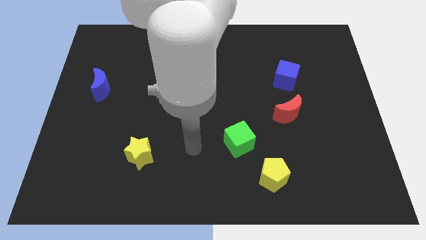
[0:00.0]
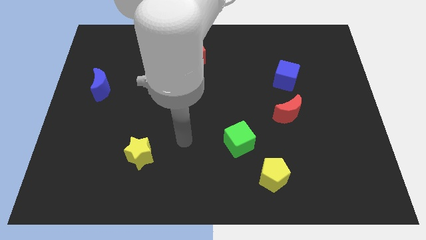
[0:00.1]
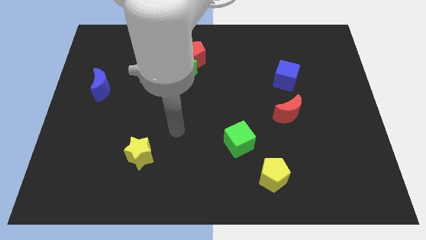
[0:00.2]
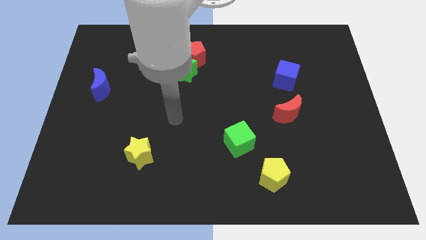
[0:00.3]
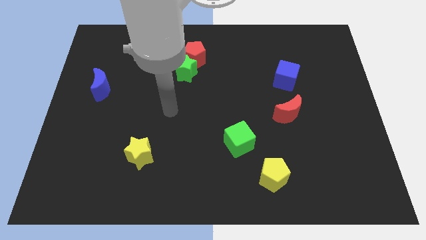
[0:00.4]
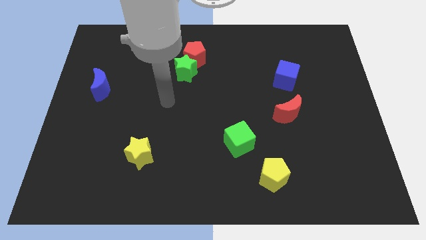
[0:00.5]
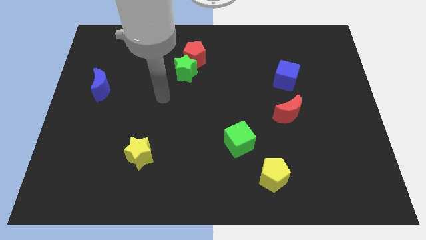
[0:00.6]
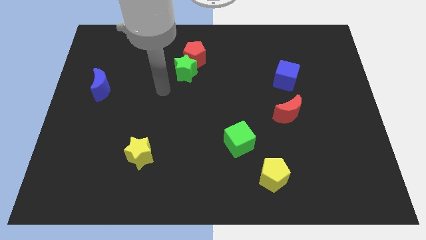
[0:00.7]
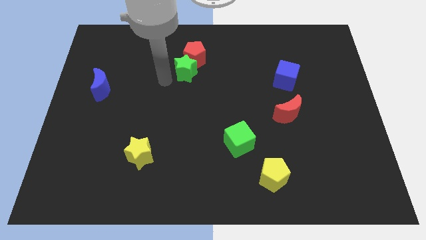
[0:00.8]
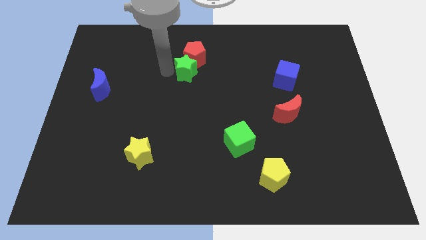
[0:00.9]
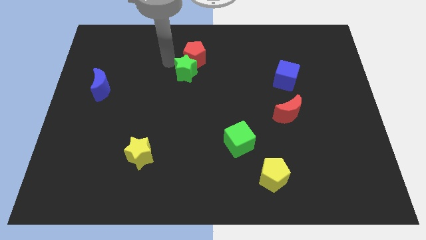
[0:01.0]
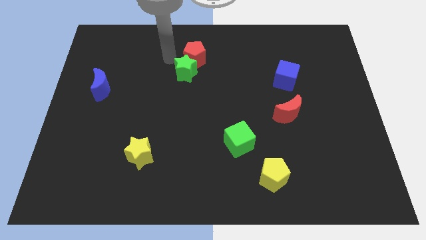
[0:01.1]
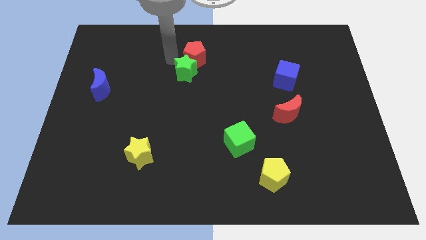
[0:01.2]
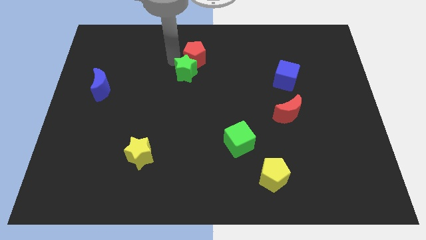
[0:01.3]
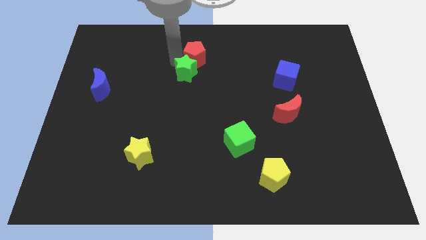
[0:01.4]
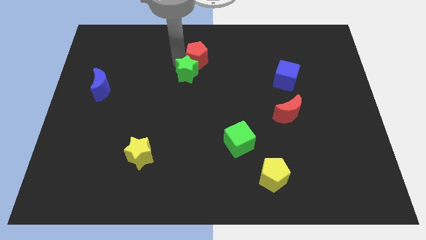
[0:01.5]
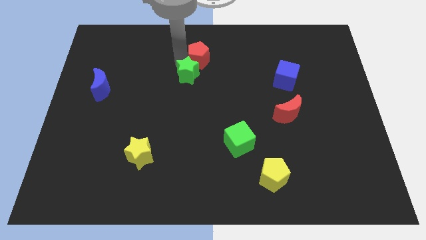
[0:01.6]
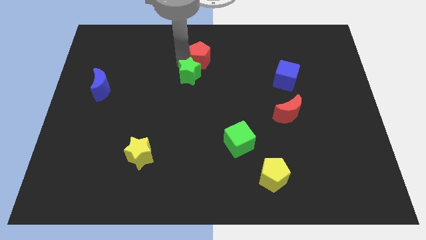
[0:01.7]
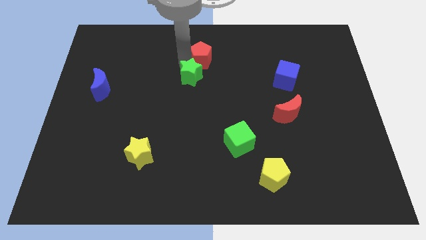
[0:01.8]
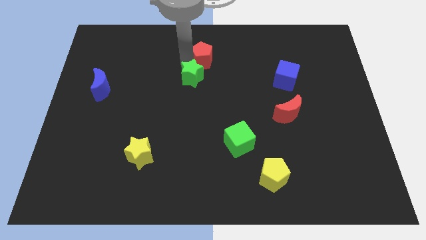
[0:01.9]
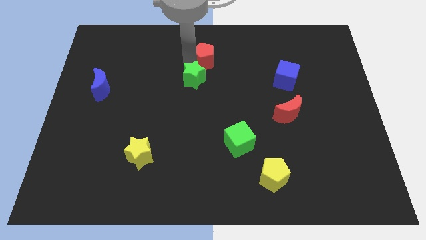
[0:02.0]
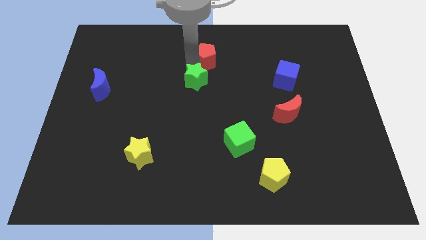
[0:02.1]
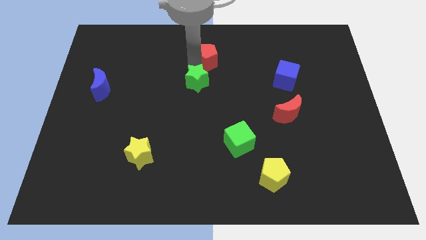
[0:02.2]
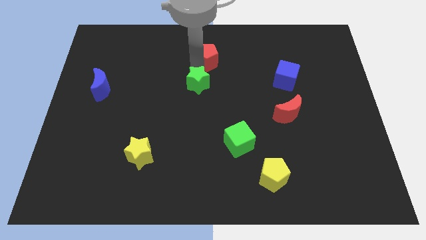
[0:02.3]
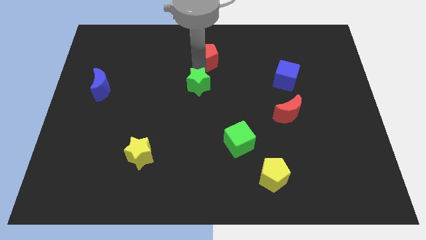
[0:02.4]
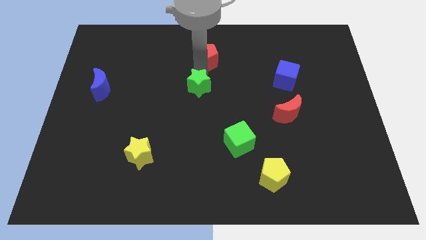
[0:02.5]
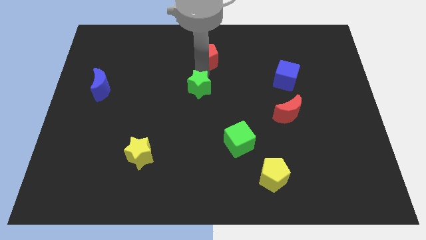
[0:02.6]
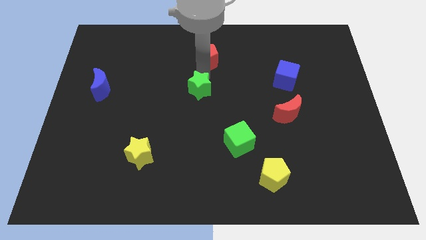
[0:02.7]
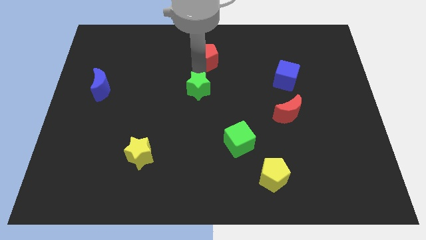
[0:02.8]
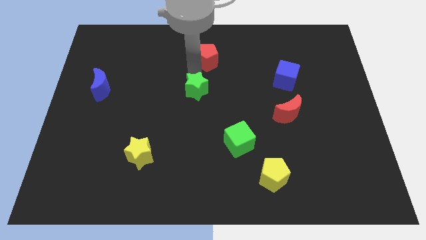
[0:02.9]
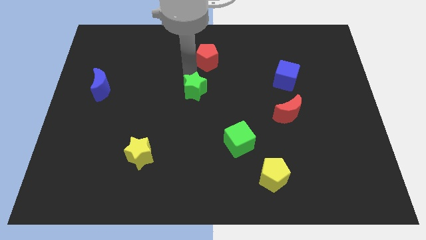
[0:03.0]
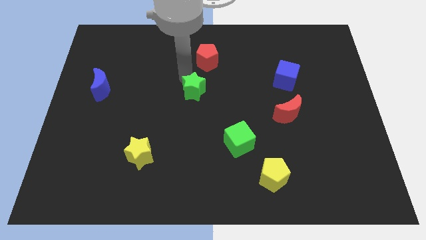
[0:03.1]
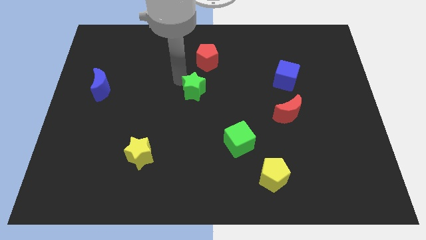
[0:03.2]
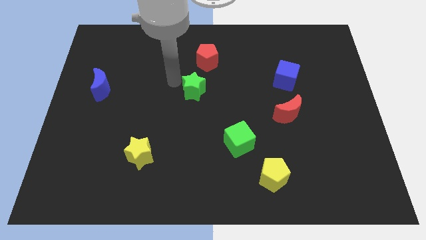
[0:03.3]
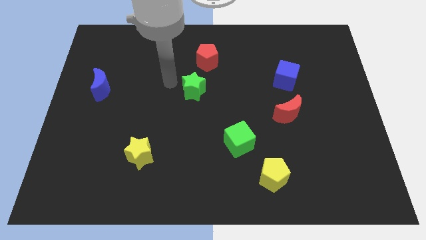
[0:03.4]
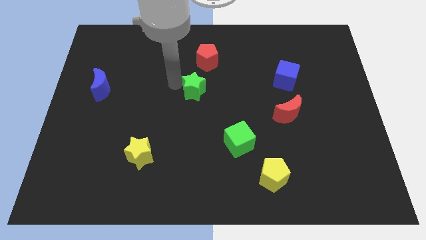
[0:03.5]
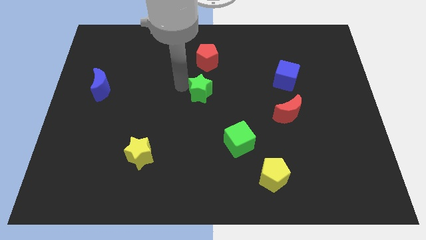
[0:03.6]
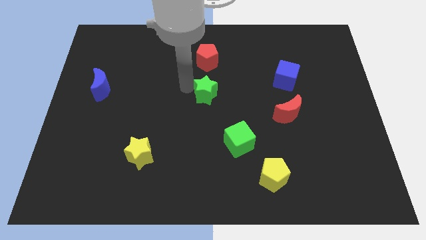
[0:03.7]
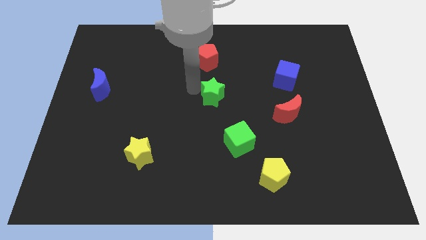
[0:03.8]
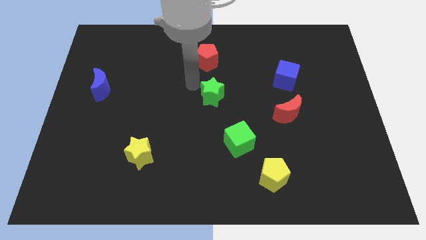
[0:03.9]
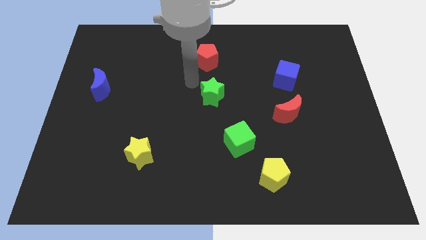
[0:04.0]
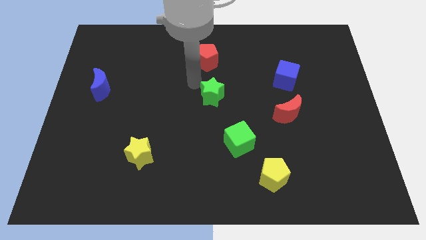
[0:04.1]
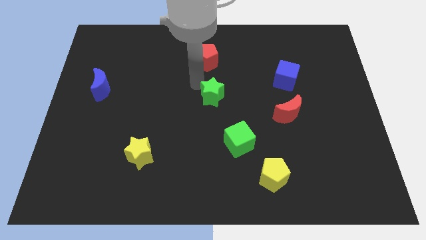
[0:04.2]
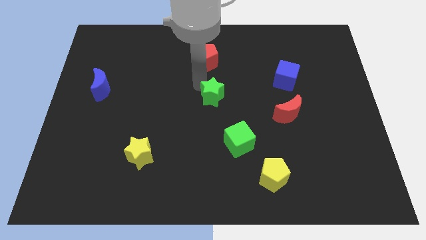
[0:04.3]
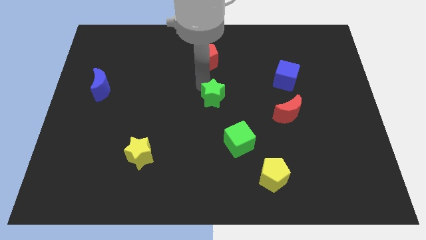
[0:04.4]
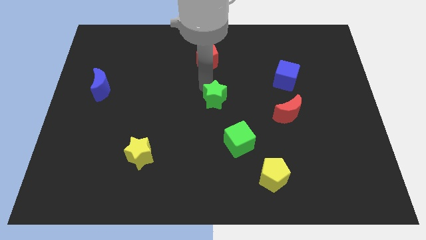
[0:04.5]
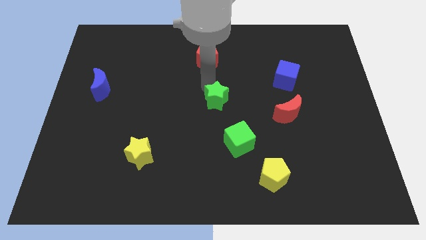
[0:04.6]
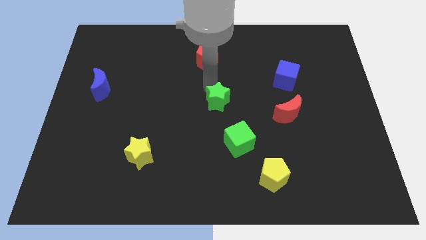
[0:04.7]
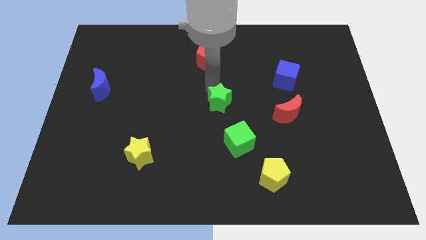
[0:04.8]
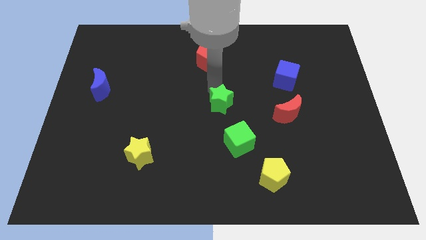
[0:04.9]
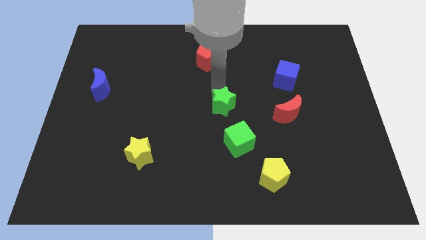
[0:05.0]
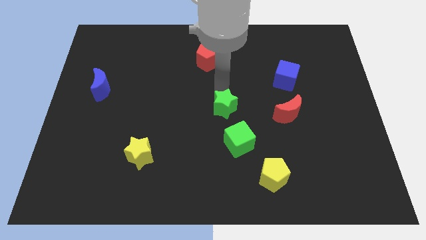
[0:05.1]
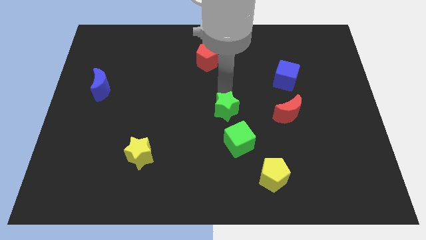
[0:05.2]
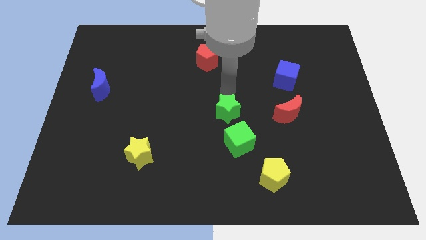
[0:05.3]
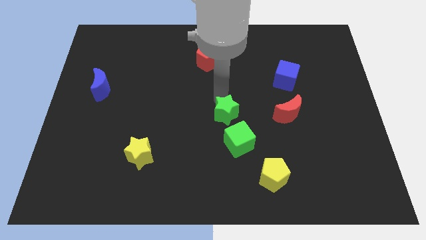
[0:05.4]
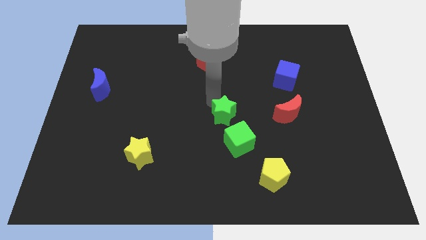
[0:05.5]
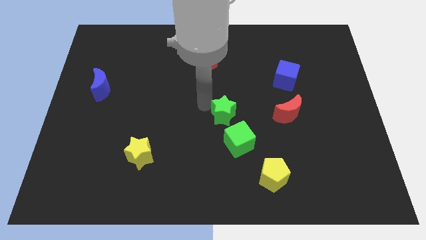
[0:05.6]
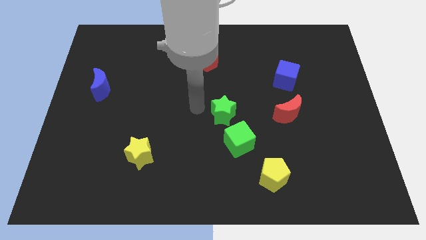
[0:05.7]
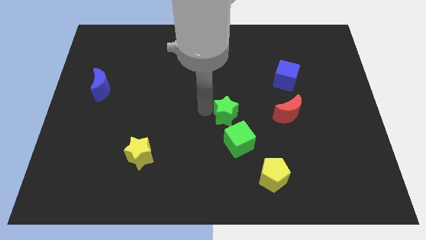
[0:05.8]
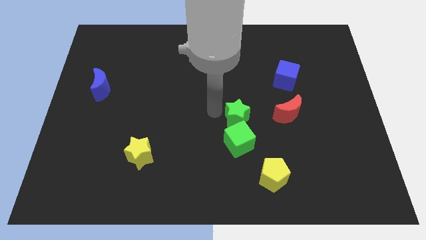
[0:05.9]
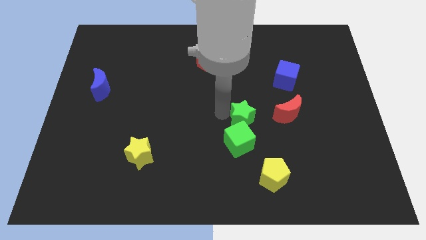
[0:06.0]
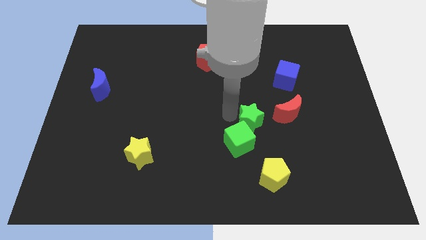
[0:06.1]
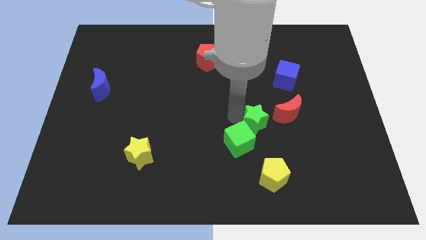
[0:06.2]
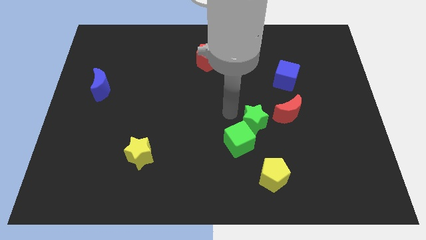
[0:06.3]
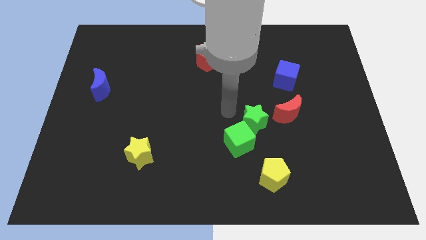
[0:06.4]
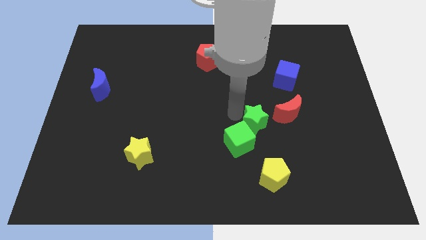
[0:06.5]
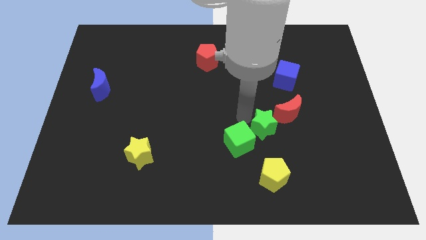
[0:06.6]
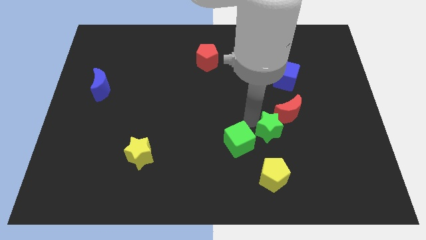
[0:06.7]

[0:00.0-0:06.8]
slide the green star to the bottom of the red moon
